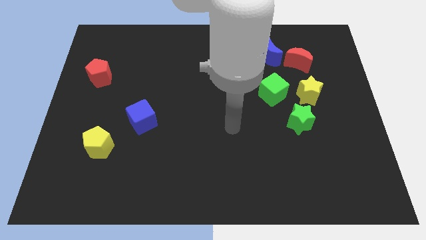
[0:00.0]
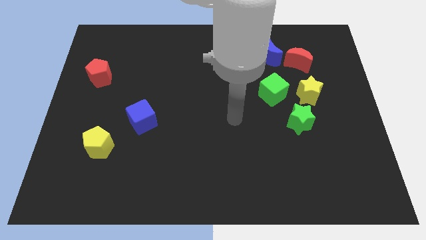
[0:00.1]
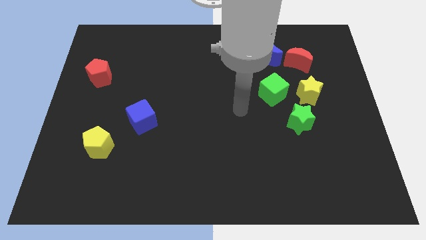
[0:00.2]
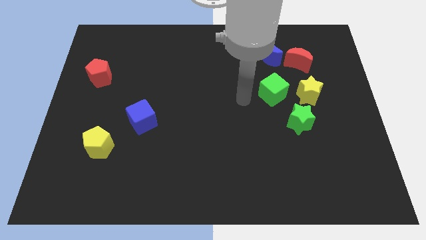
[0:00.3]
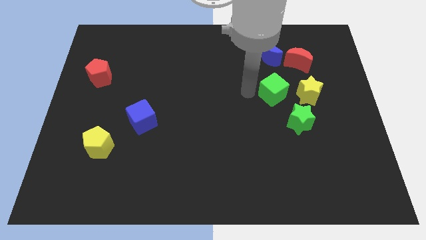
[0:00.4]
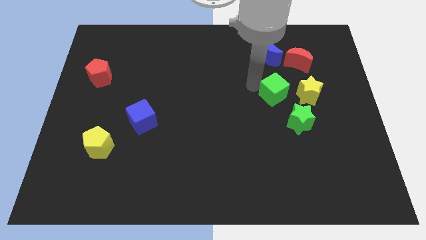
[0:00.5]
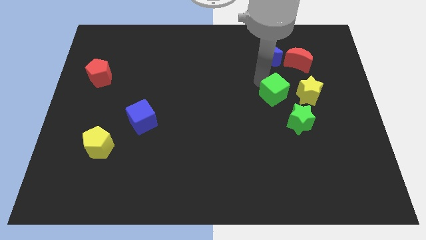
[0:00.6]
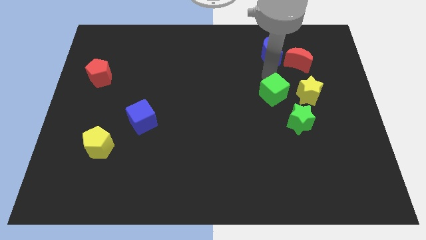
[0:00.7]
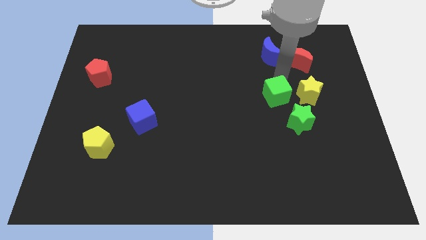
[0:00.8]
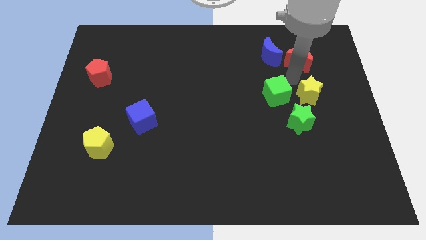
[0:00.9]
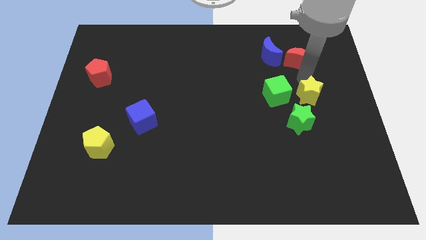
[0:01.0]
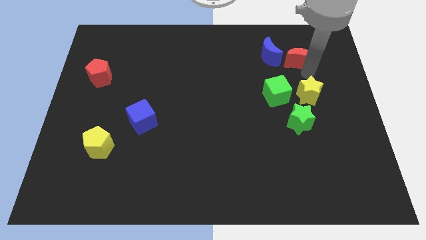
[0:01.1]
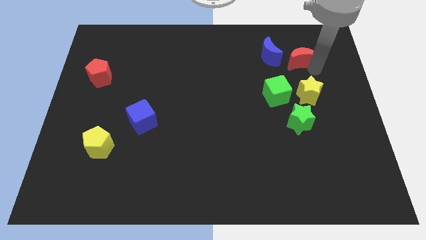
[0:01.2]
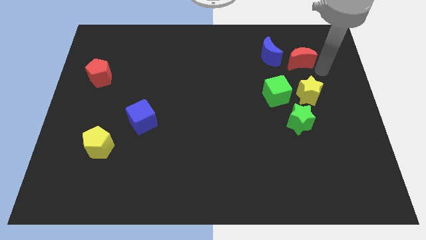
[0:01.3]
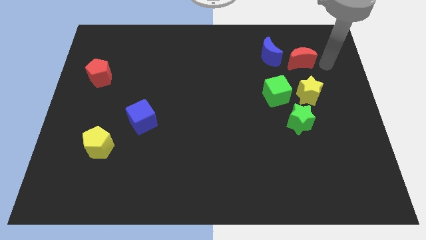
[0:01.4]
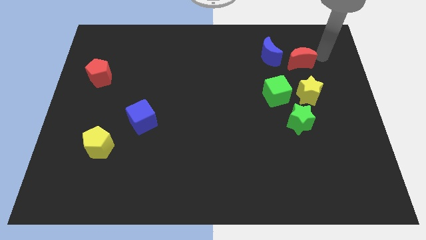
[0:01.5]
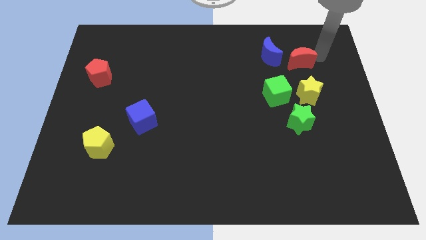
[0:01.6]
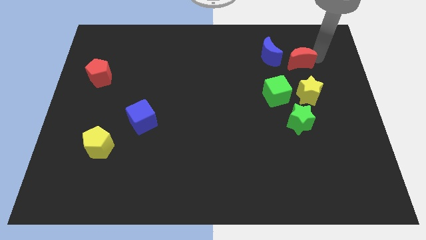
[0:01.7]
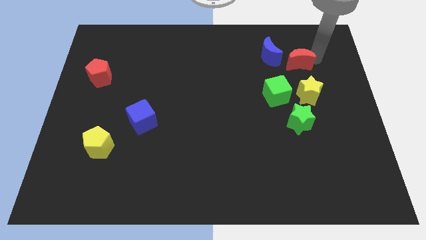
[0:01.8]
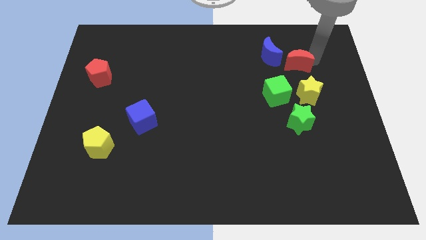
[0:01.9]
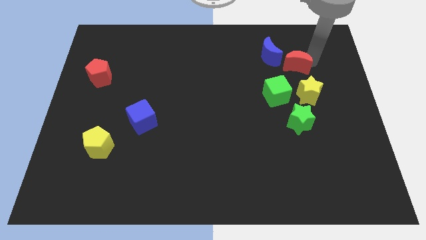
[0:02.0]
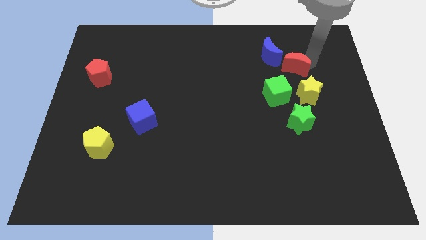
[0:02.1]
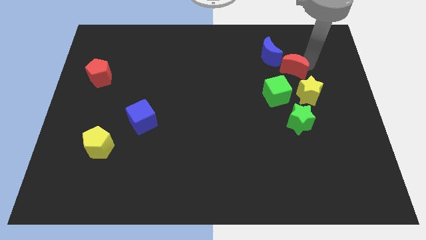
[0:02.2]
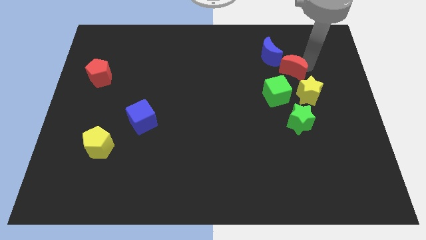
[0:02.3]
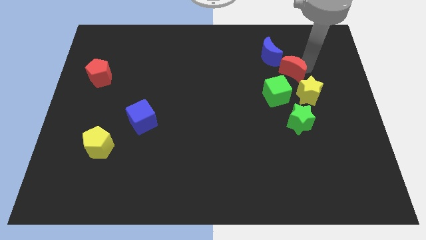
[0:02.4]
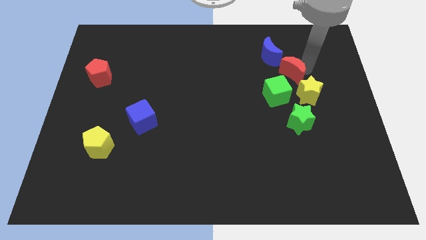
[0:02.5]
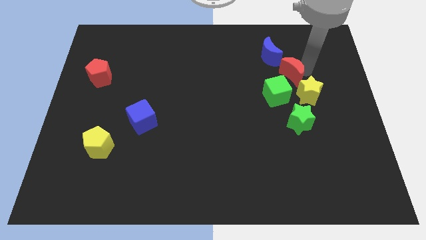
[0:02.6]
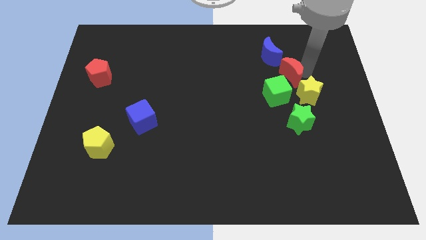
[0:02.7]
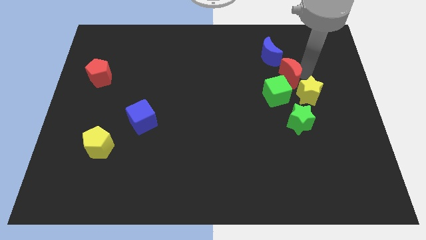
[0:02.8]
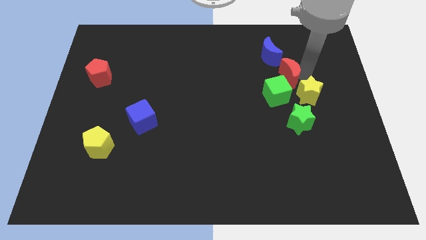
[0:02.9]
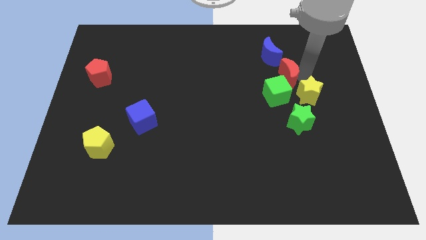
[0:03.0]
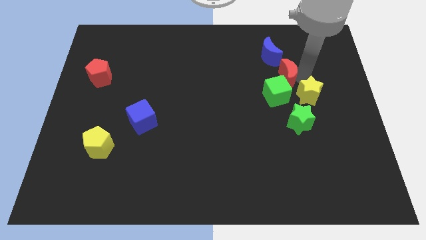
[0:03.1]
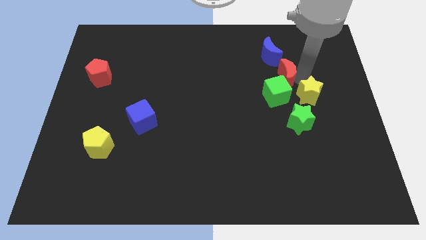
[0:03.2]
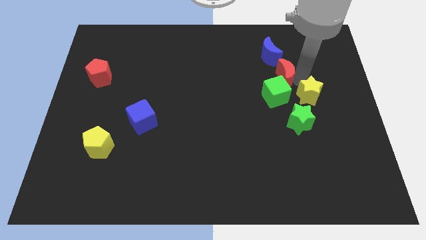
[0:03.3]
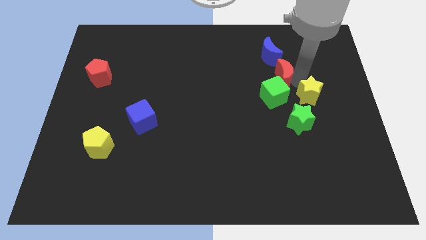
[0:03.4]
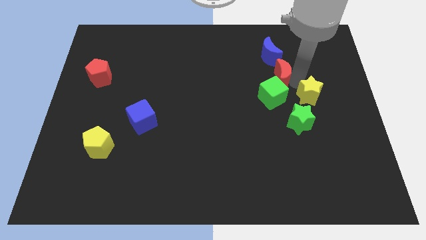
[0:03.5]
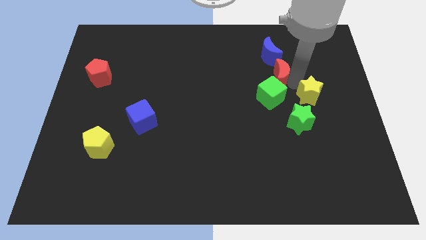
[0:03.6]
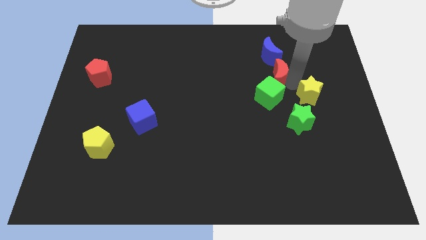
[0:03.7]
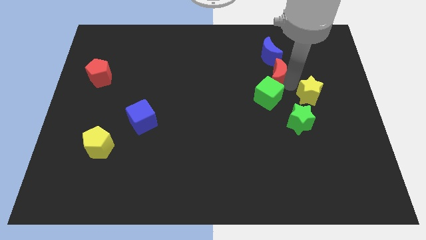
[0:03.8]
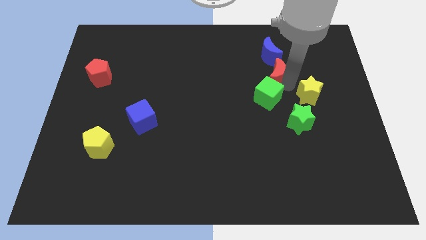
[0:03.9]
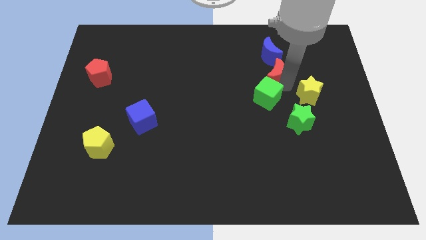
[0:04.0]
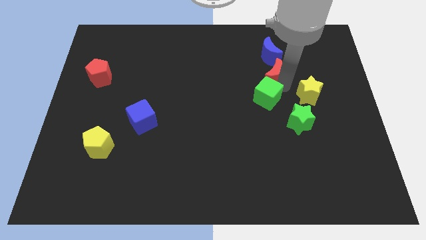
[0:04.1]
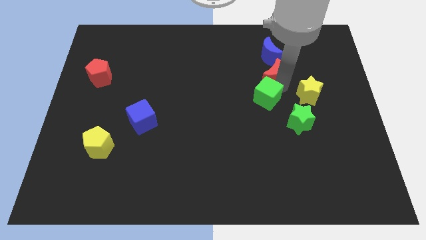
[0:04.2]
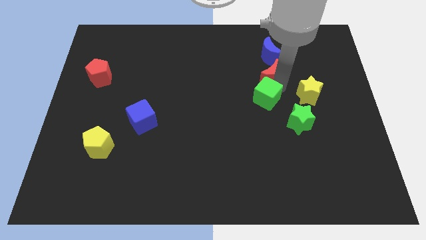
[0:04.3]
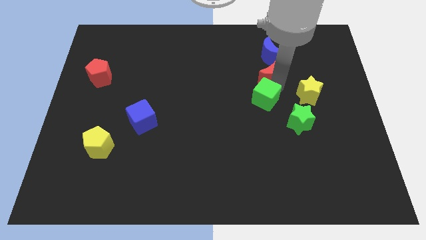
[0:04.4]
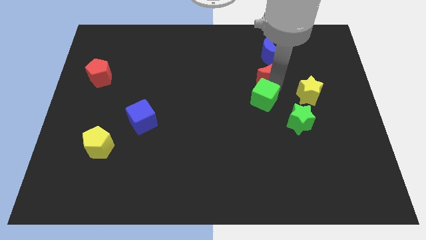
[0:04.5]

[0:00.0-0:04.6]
slide the red moon slightly to the left

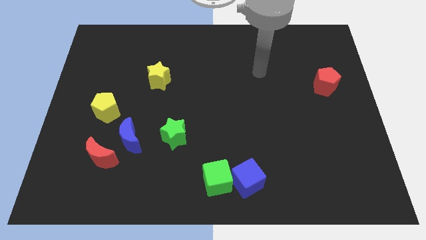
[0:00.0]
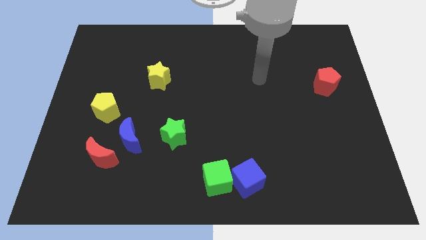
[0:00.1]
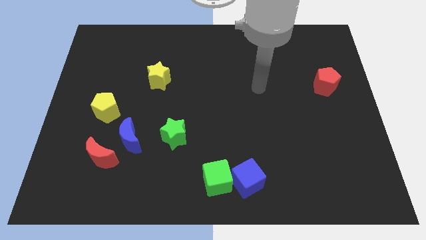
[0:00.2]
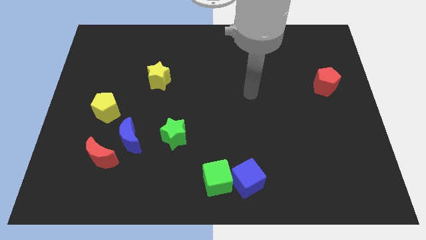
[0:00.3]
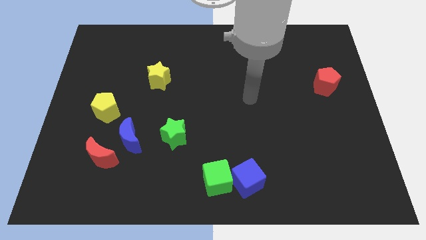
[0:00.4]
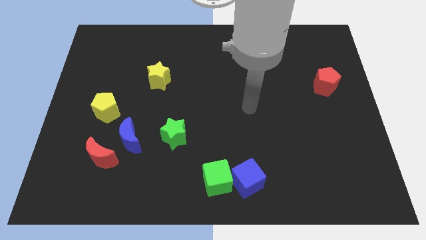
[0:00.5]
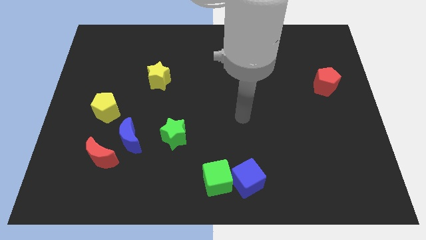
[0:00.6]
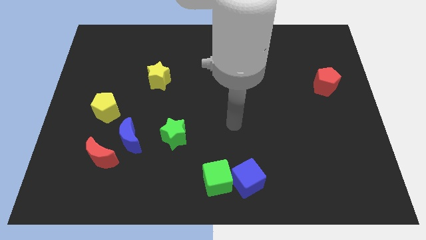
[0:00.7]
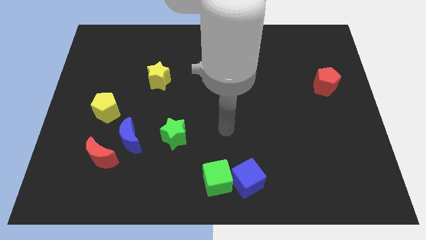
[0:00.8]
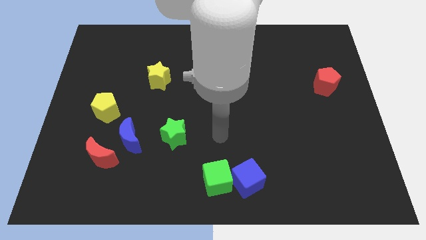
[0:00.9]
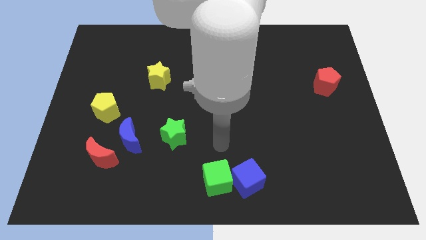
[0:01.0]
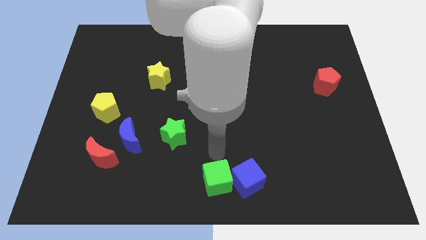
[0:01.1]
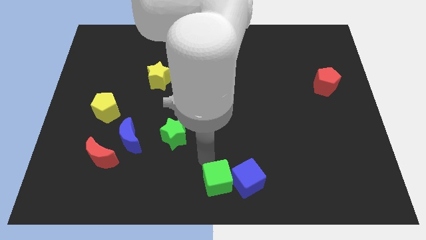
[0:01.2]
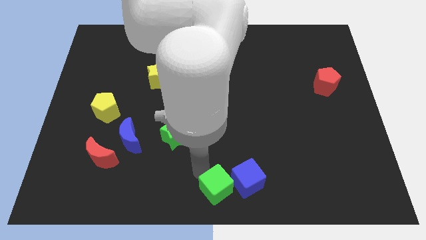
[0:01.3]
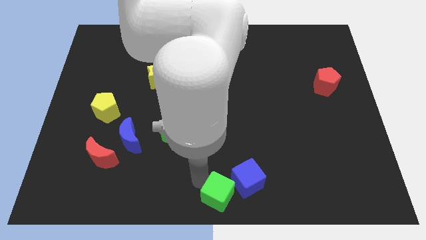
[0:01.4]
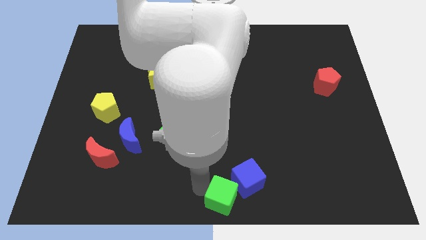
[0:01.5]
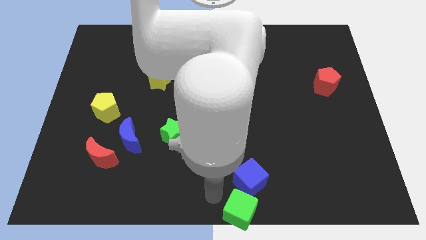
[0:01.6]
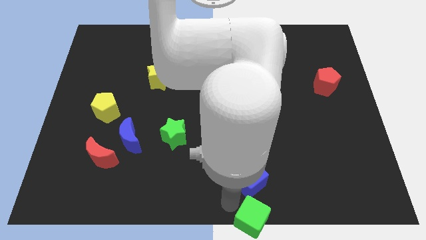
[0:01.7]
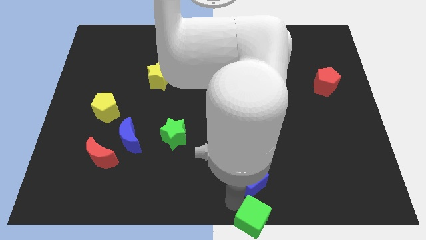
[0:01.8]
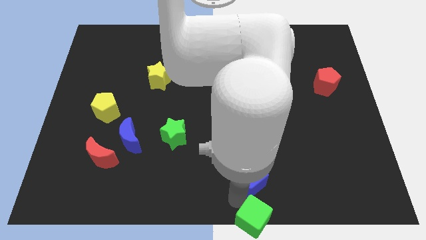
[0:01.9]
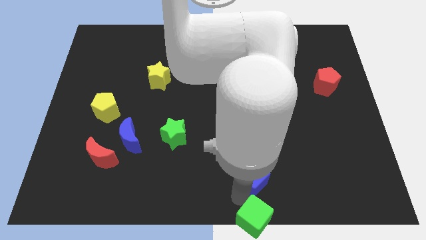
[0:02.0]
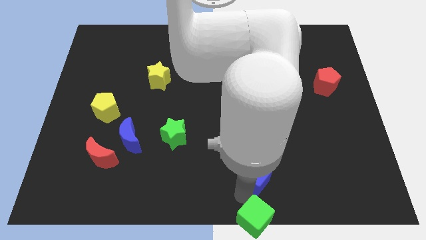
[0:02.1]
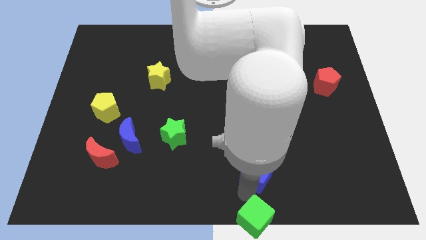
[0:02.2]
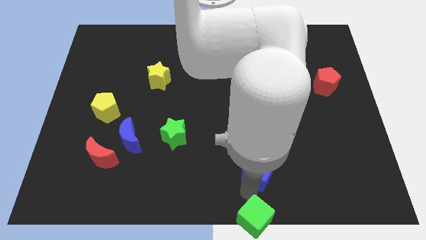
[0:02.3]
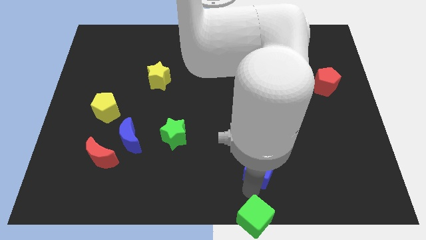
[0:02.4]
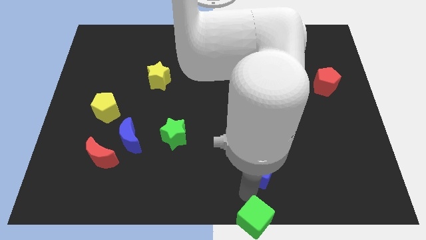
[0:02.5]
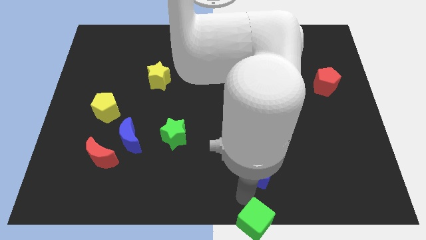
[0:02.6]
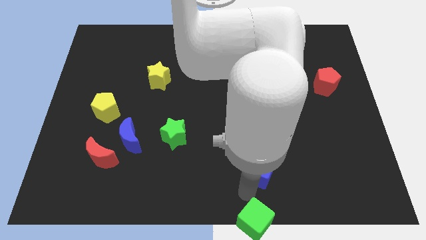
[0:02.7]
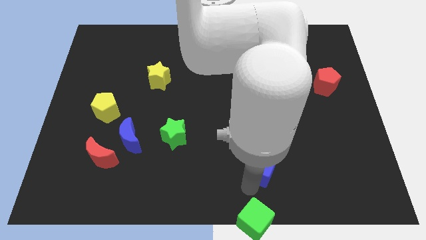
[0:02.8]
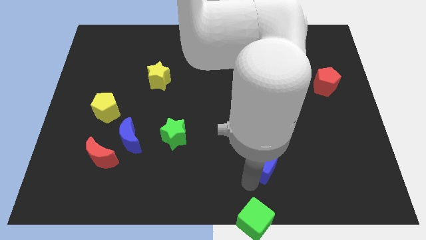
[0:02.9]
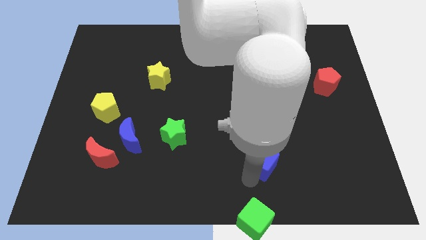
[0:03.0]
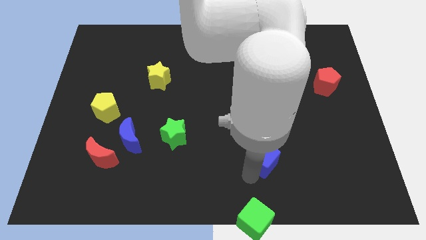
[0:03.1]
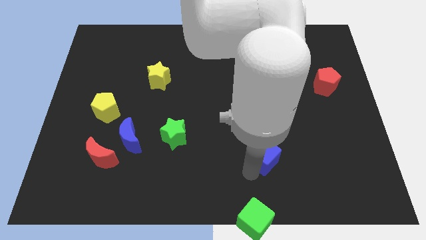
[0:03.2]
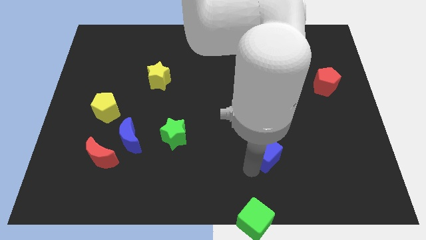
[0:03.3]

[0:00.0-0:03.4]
slide the blue cube diagonally upwards and right somewhat
